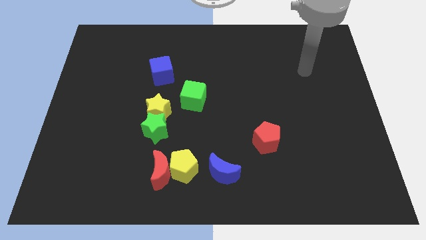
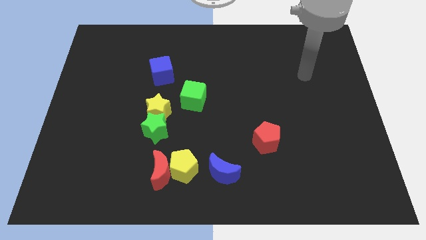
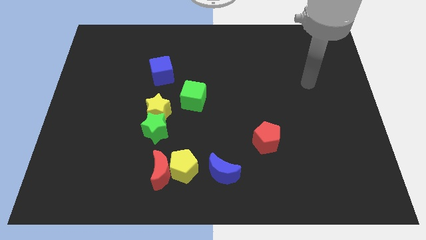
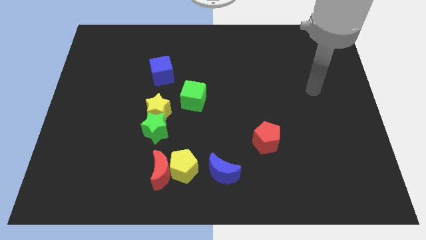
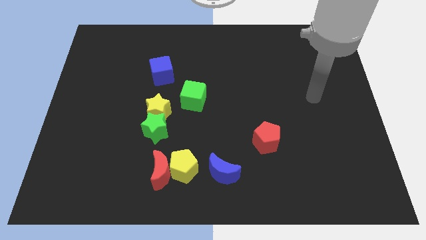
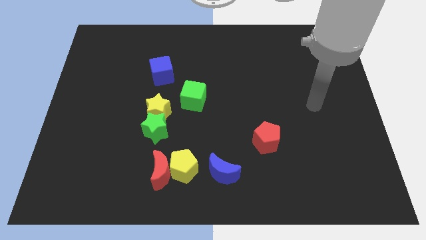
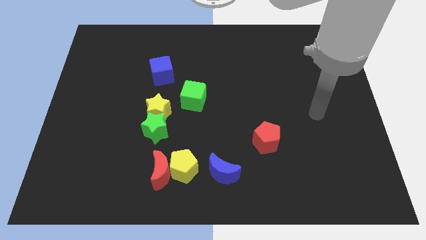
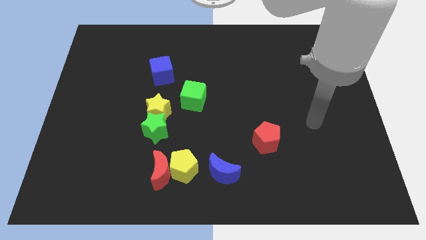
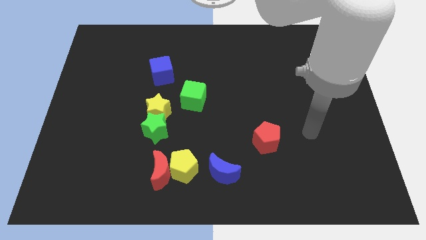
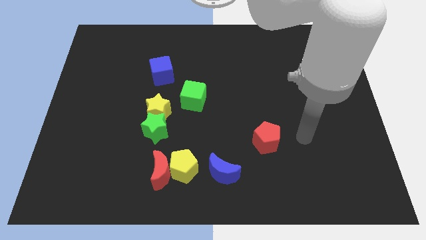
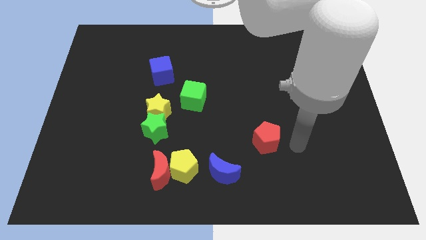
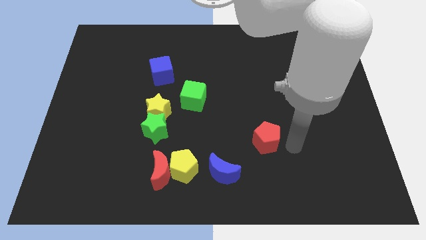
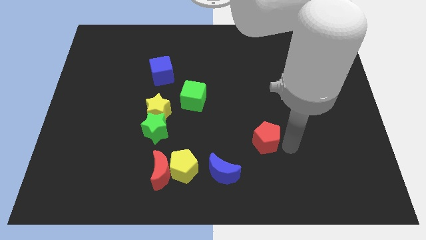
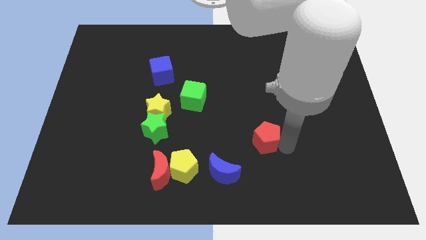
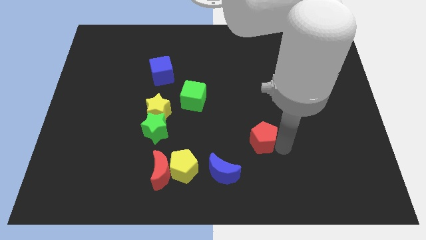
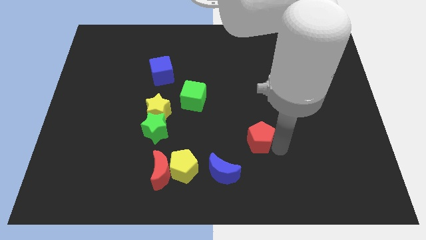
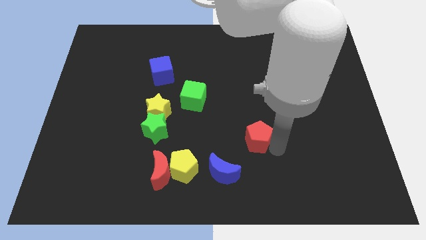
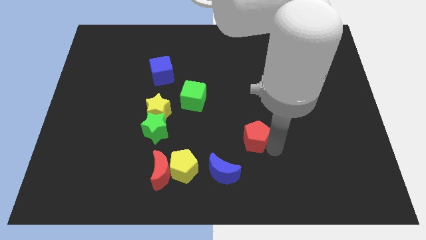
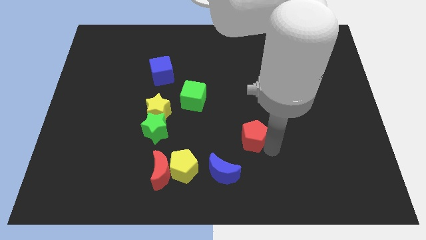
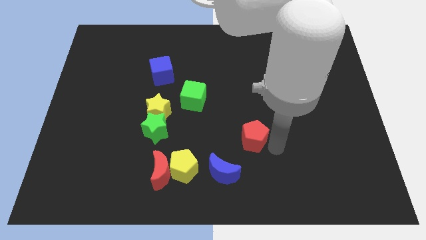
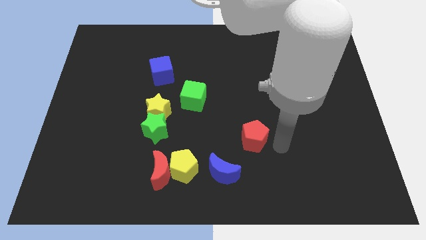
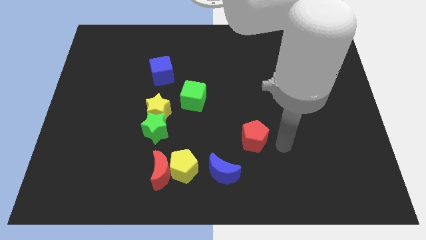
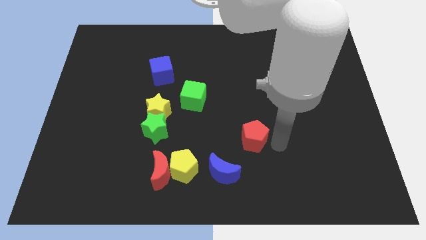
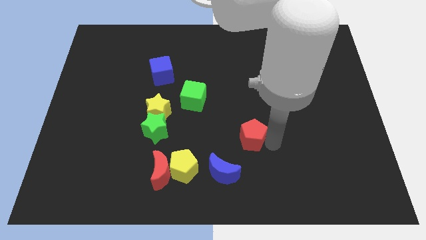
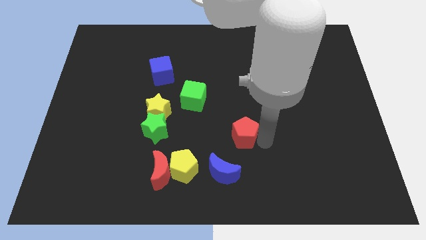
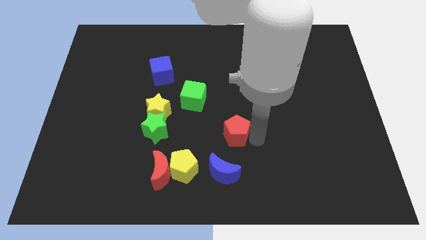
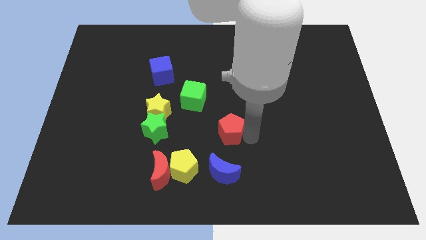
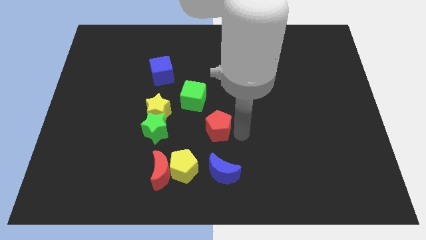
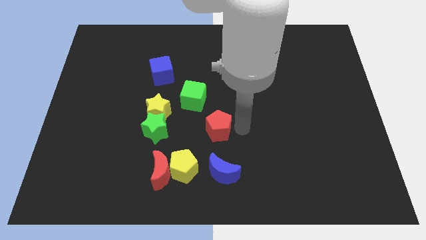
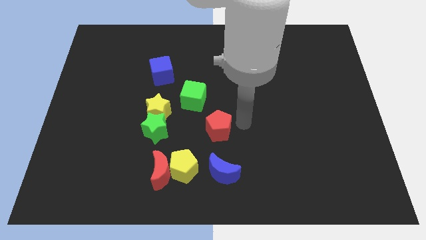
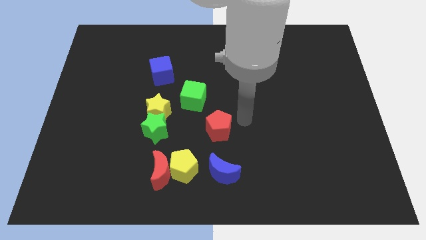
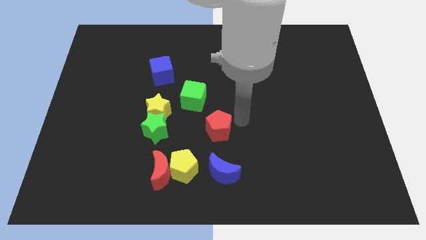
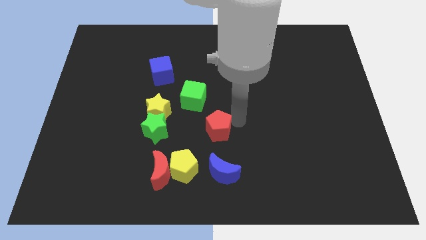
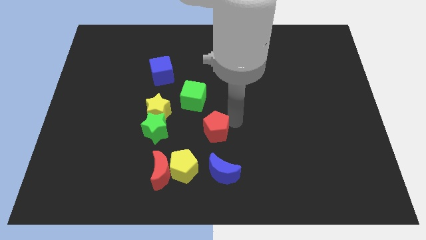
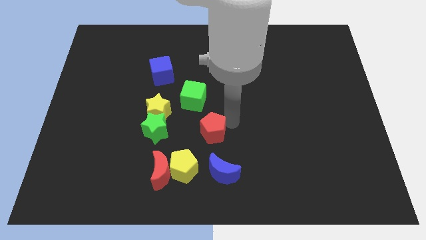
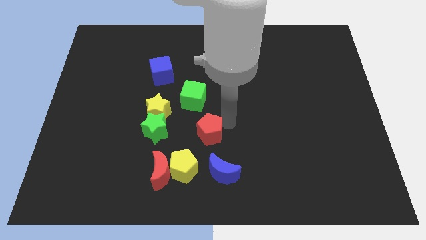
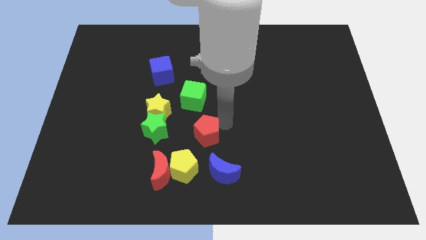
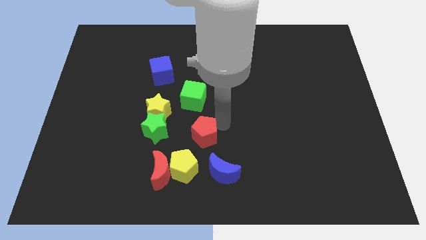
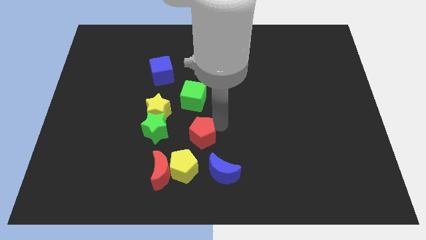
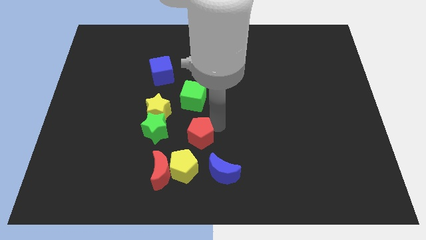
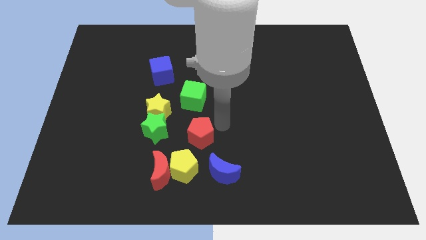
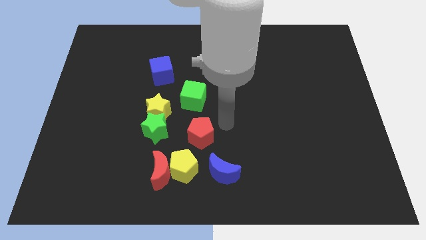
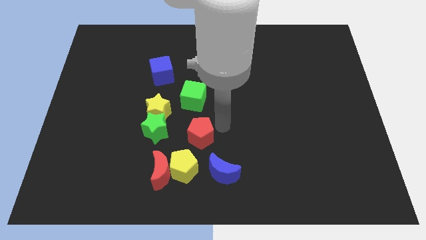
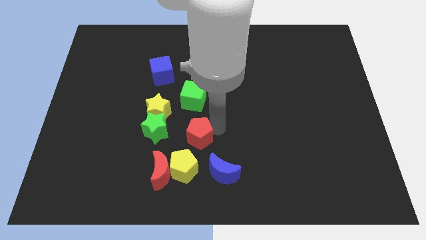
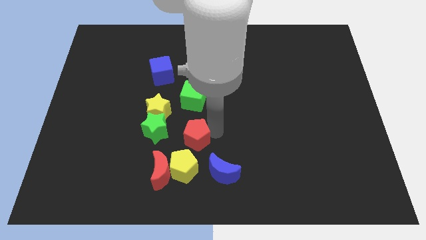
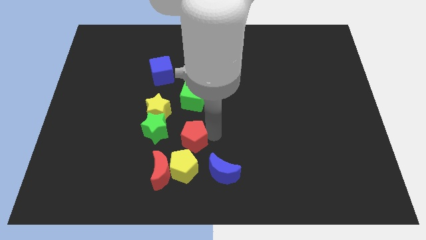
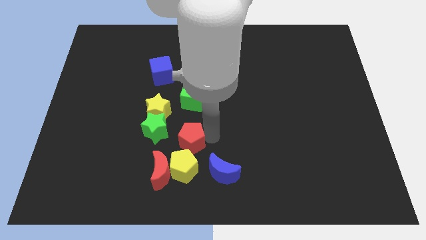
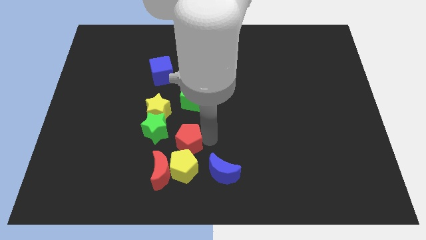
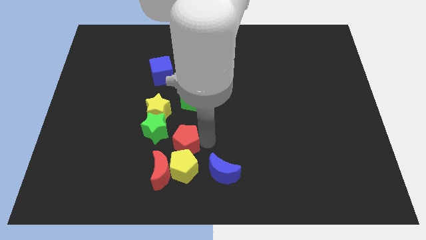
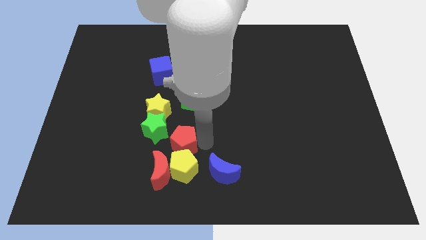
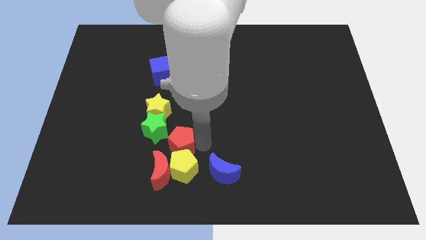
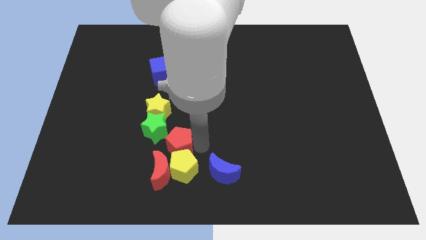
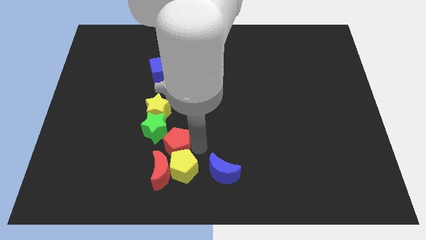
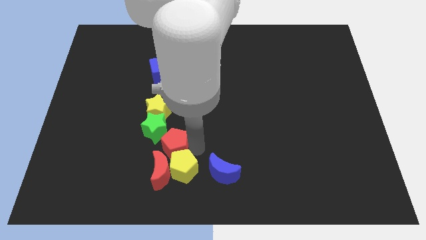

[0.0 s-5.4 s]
move the red pentagon to the left

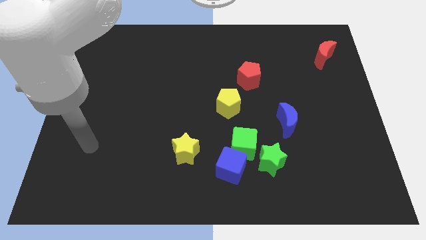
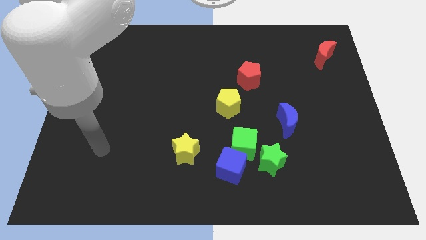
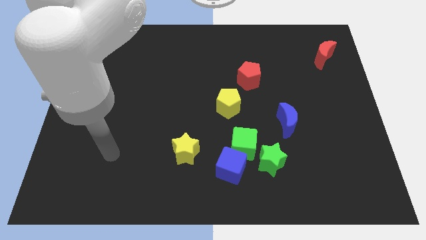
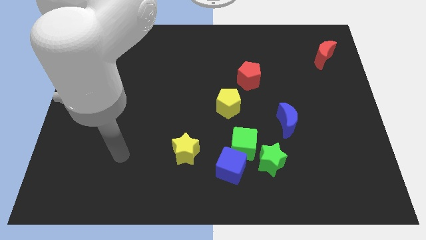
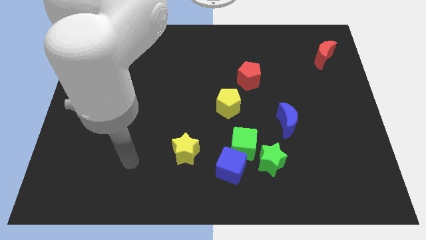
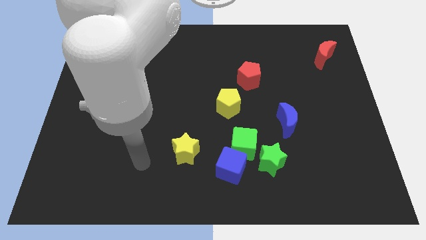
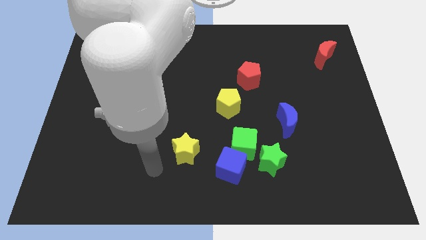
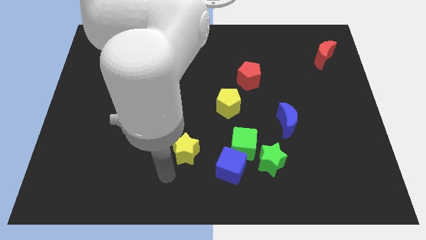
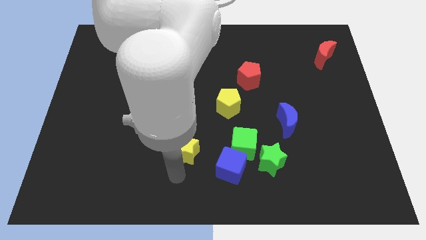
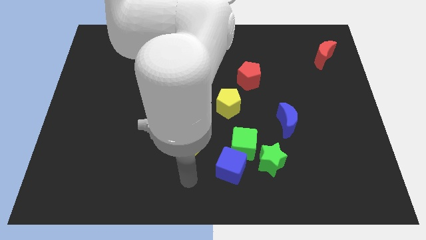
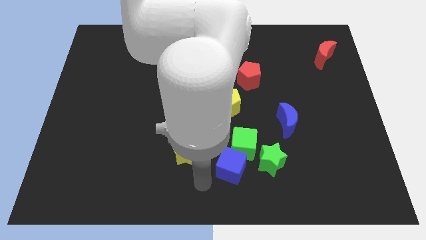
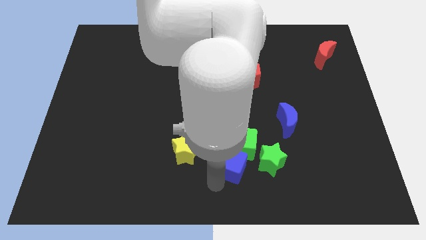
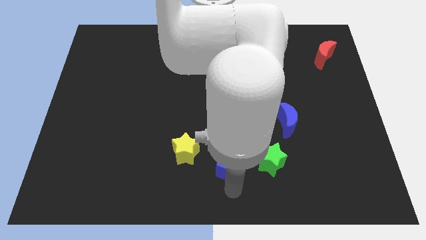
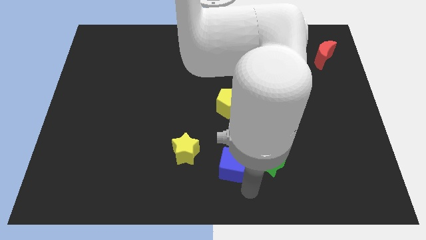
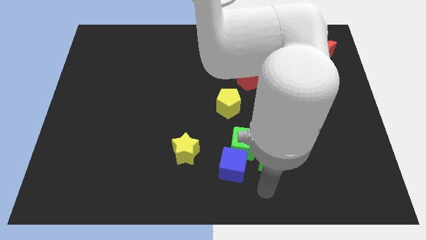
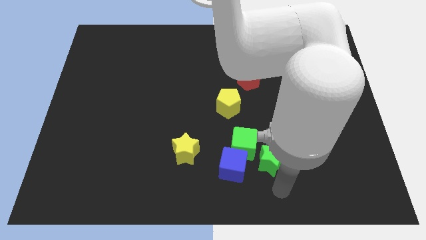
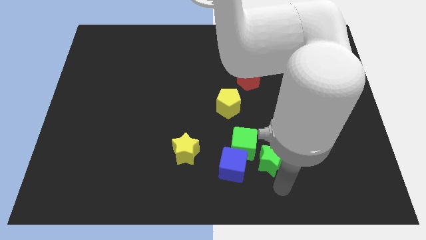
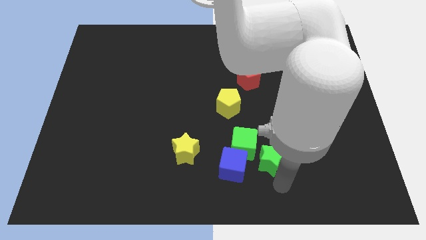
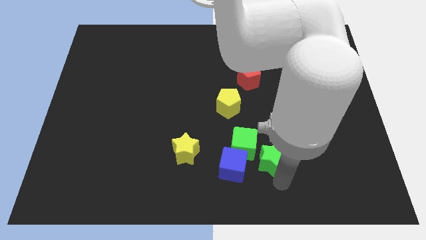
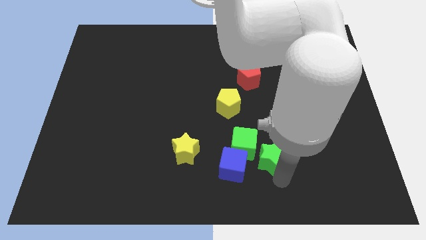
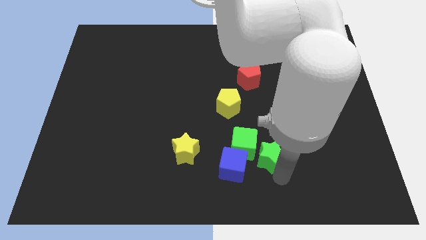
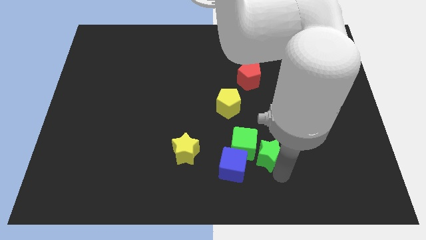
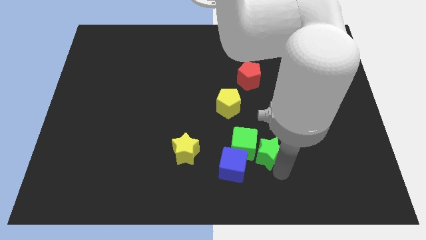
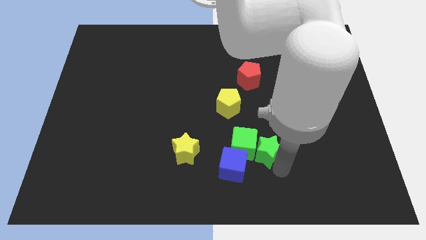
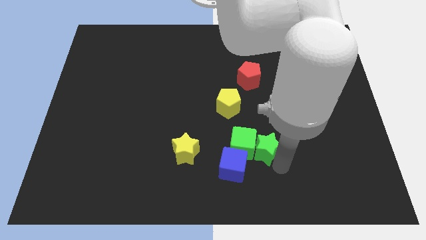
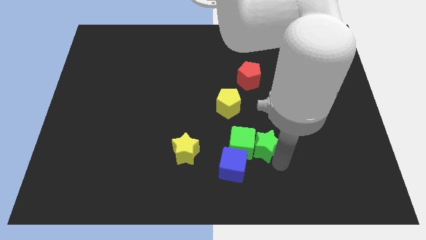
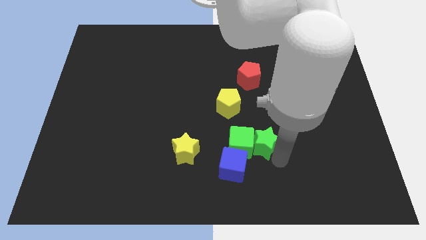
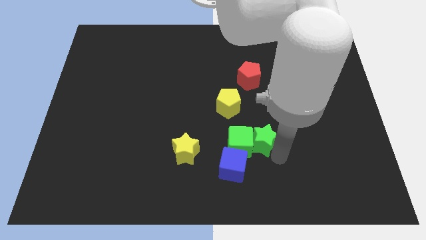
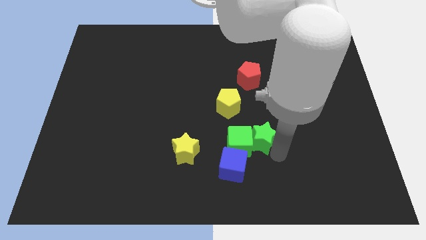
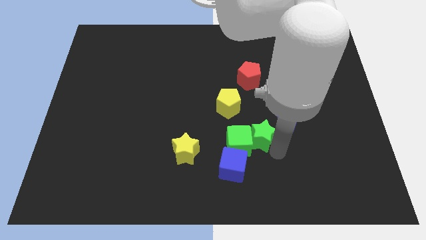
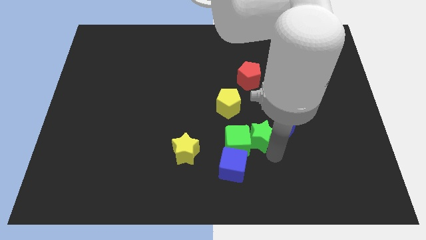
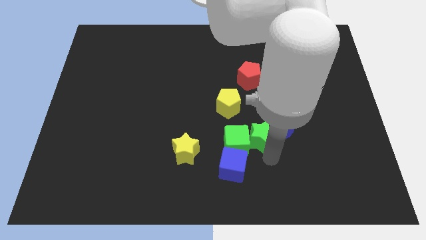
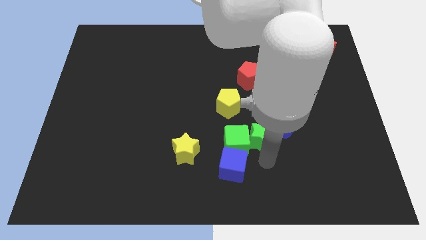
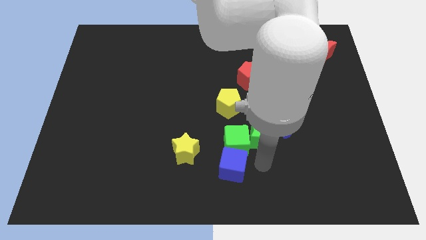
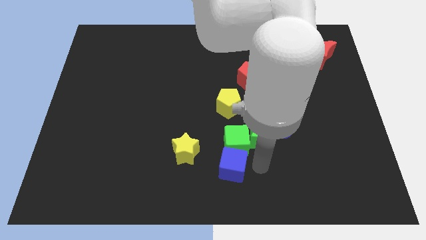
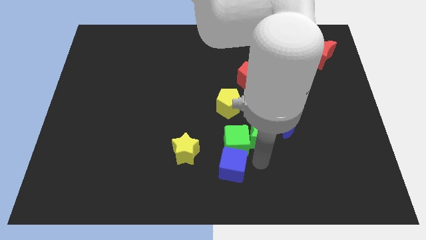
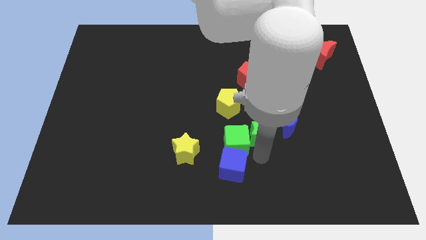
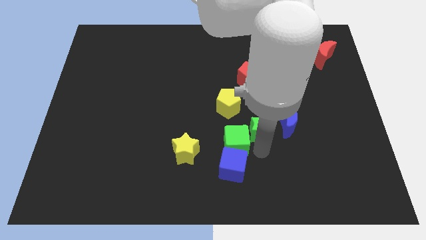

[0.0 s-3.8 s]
move the green star somewhat up
